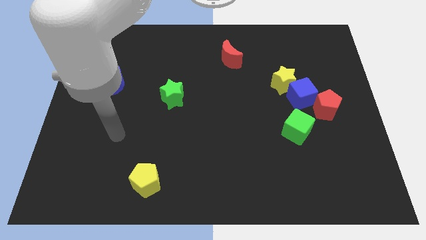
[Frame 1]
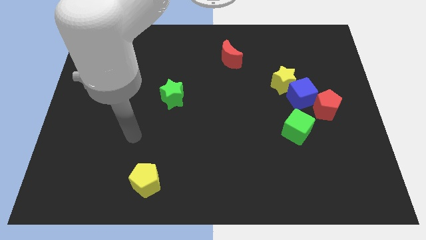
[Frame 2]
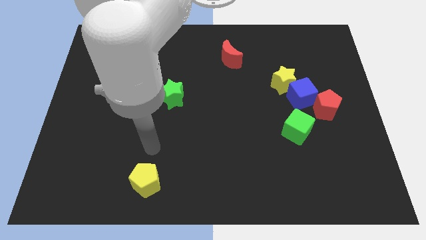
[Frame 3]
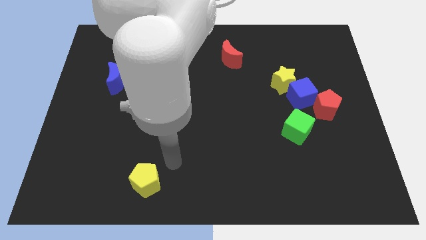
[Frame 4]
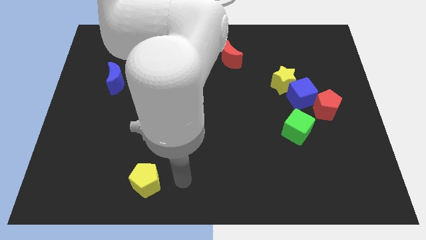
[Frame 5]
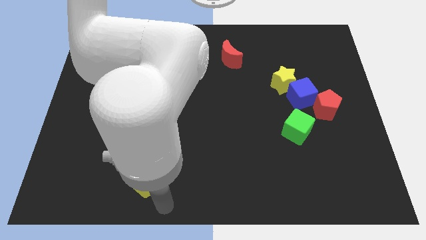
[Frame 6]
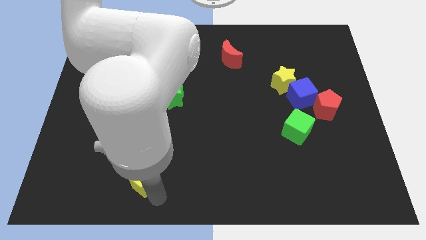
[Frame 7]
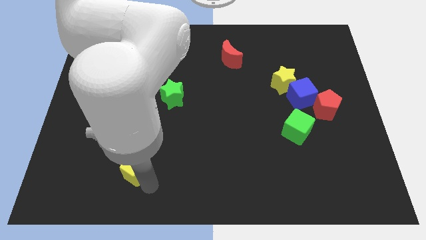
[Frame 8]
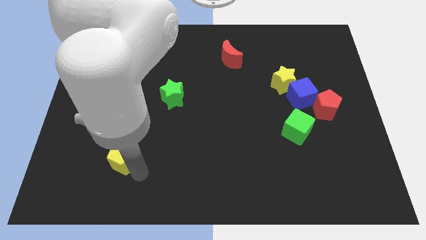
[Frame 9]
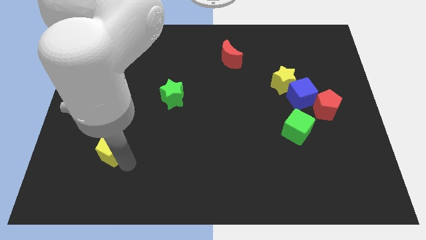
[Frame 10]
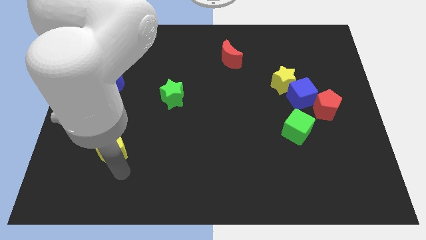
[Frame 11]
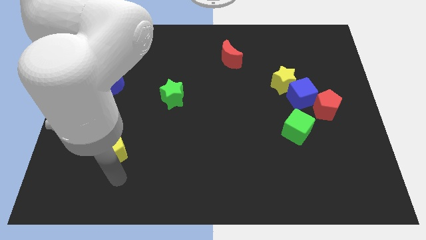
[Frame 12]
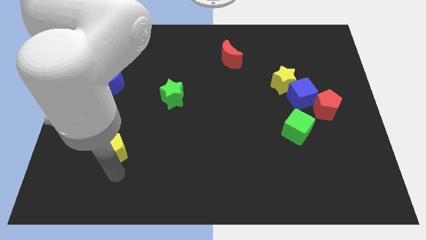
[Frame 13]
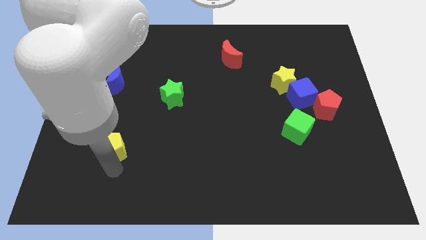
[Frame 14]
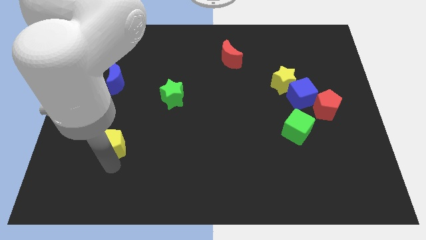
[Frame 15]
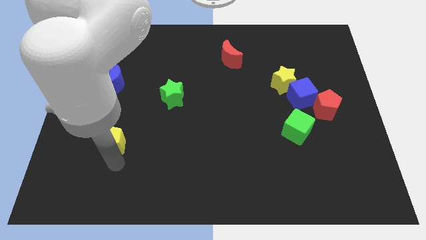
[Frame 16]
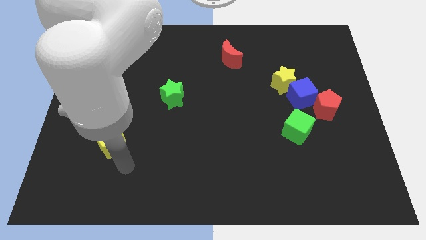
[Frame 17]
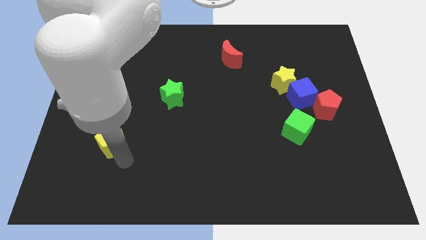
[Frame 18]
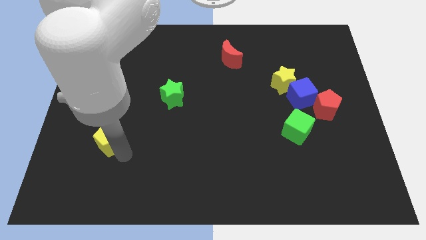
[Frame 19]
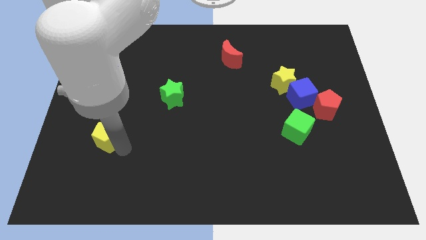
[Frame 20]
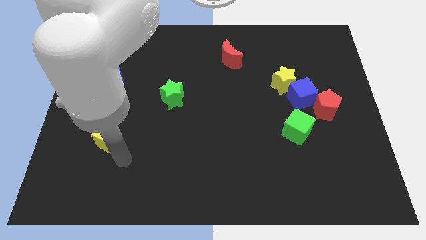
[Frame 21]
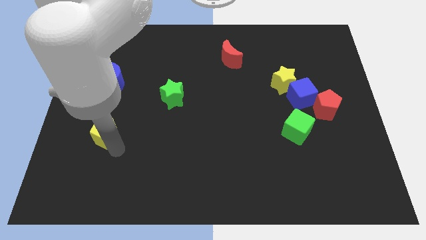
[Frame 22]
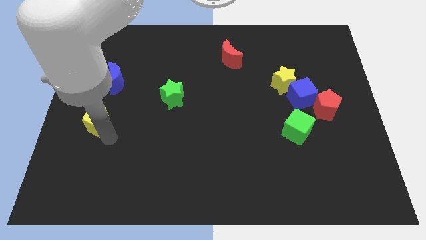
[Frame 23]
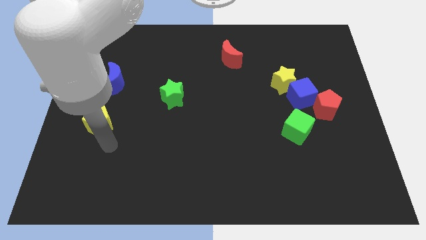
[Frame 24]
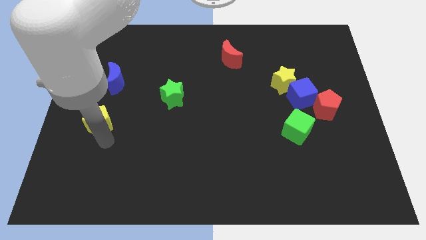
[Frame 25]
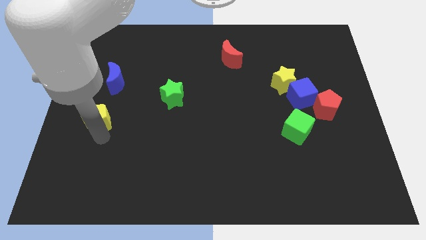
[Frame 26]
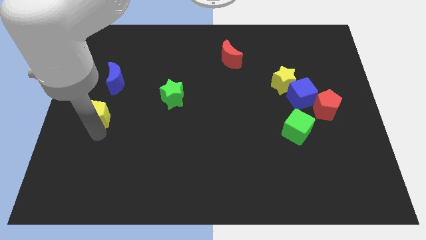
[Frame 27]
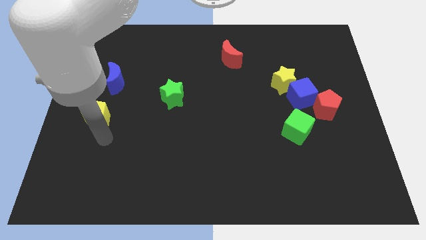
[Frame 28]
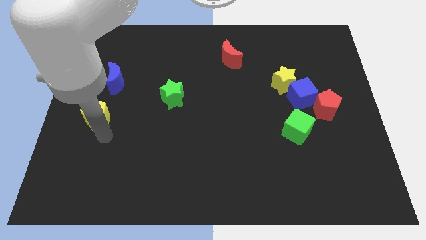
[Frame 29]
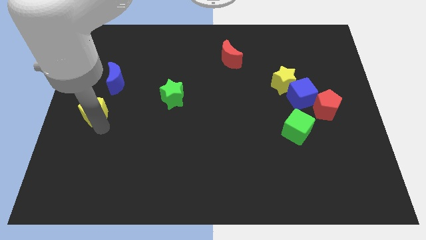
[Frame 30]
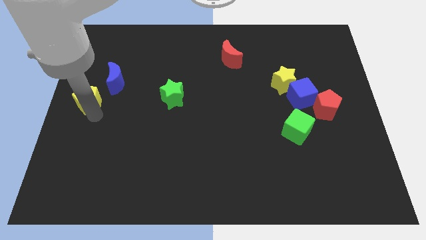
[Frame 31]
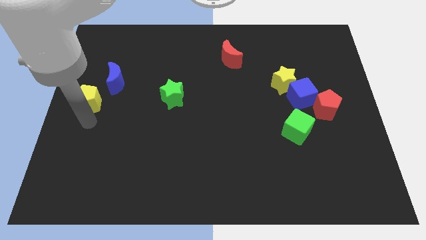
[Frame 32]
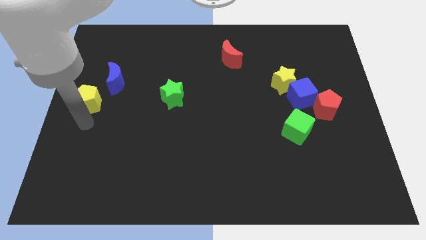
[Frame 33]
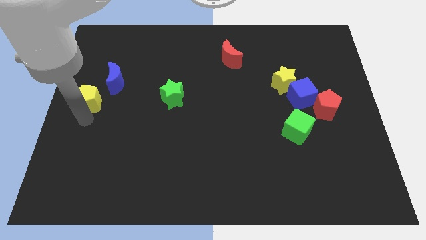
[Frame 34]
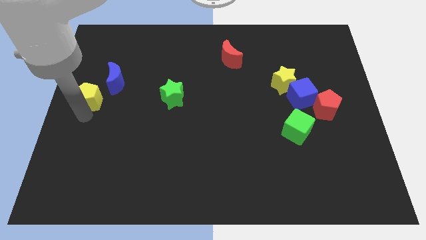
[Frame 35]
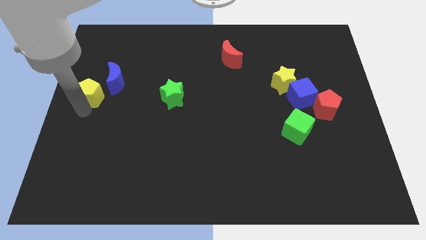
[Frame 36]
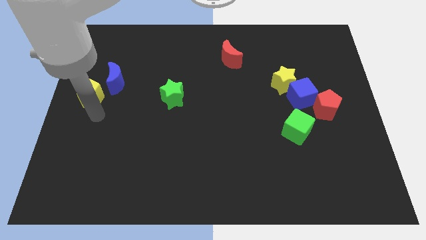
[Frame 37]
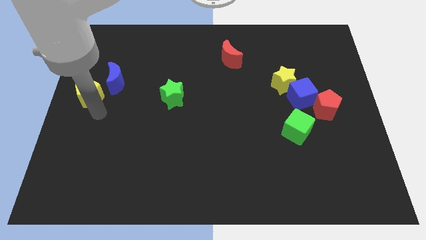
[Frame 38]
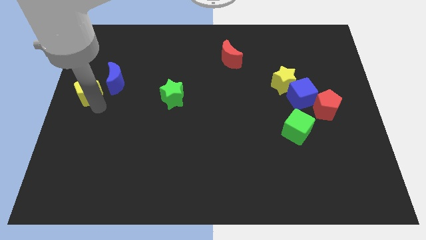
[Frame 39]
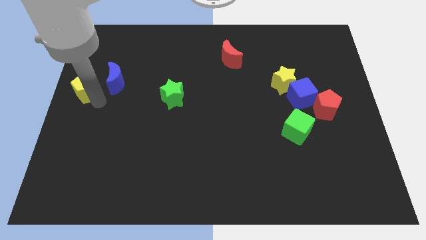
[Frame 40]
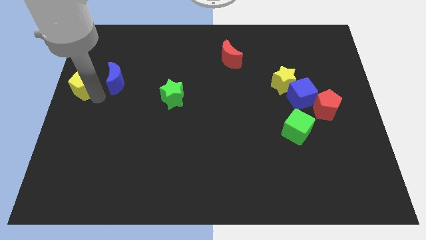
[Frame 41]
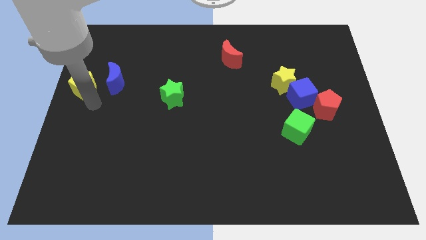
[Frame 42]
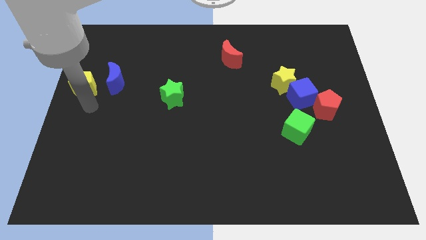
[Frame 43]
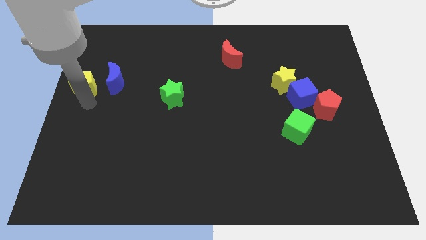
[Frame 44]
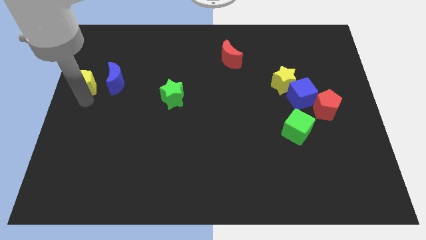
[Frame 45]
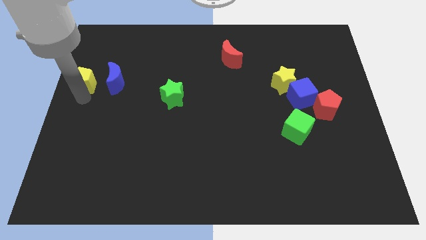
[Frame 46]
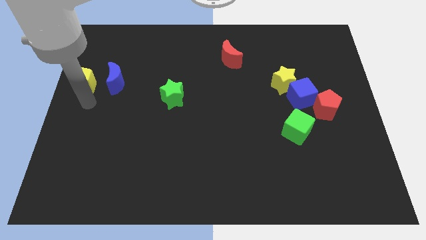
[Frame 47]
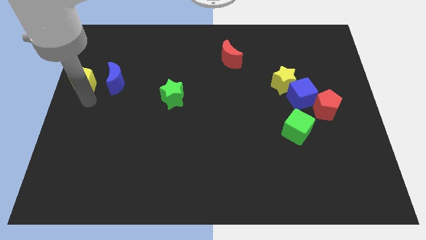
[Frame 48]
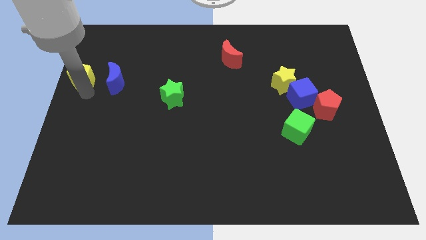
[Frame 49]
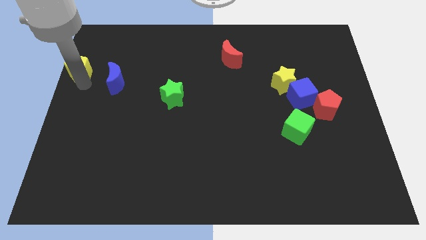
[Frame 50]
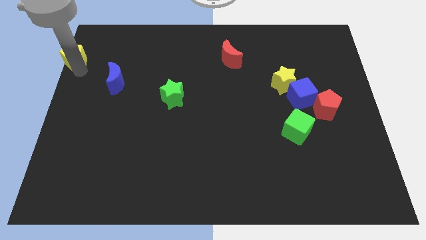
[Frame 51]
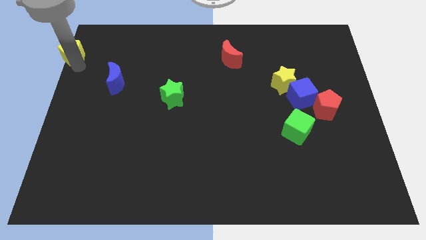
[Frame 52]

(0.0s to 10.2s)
slide the yellow pentagon to the top left corner

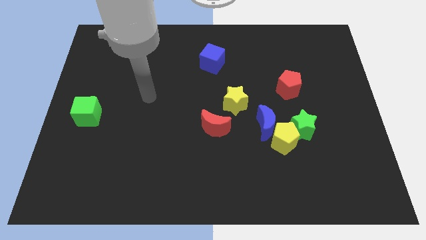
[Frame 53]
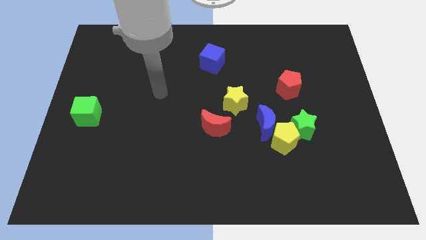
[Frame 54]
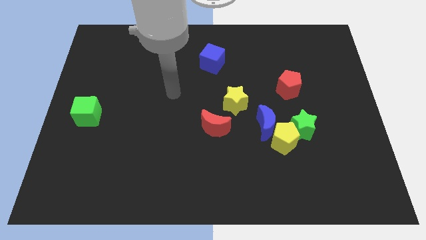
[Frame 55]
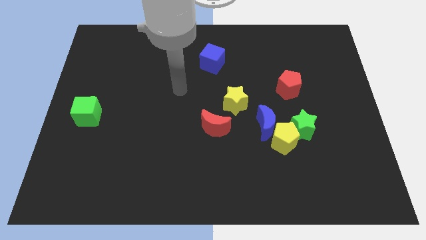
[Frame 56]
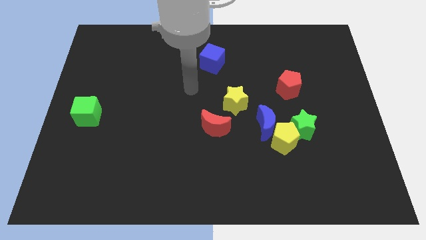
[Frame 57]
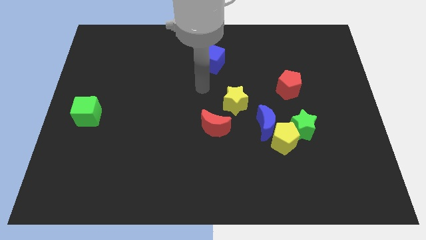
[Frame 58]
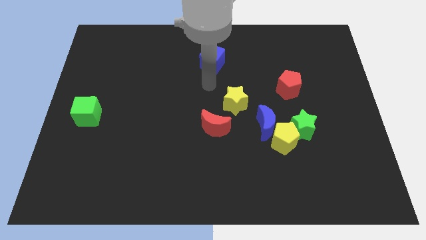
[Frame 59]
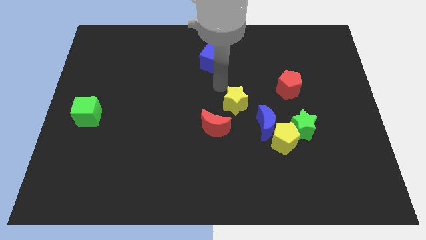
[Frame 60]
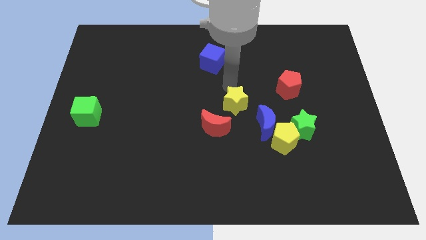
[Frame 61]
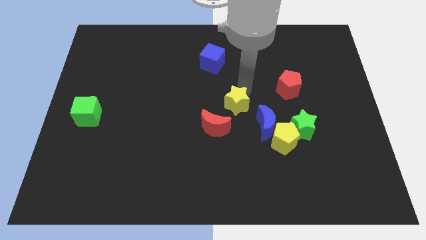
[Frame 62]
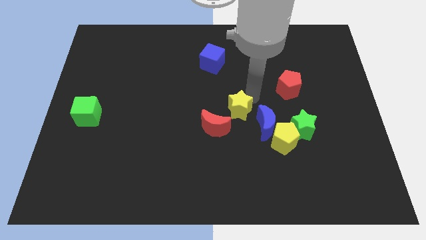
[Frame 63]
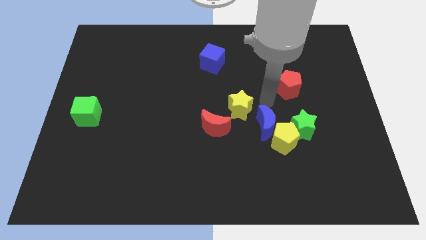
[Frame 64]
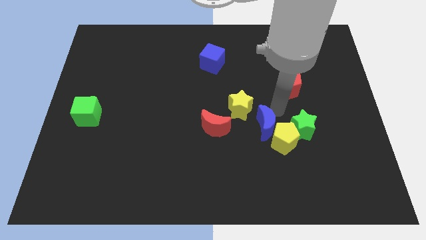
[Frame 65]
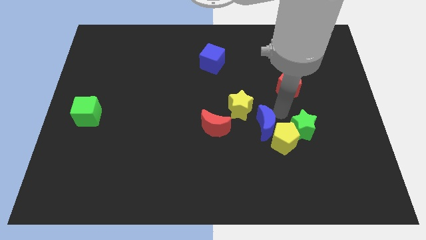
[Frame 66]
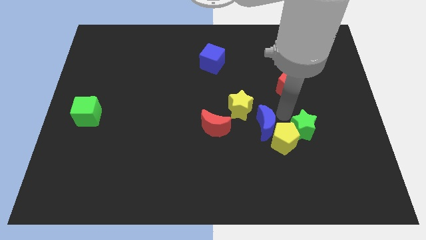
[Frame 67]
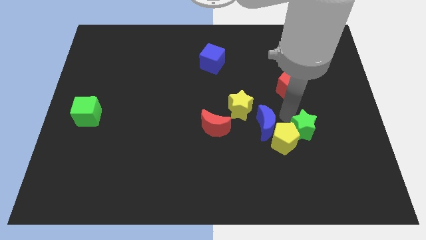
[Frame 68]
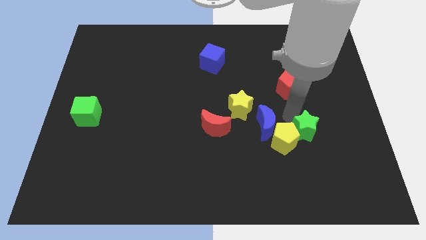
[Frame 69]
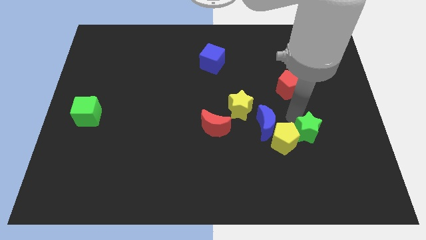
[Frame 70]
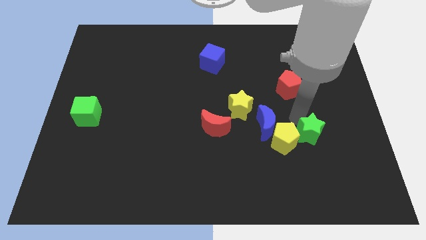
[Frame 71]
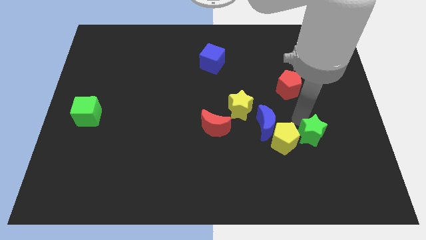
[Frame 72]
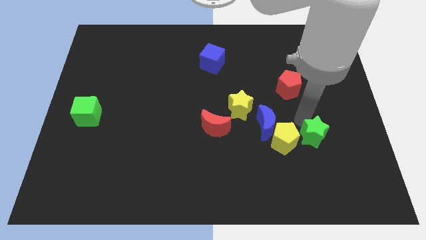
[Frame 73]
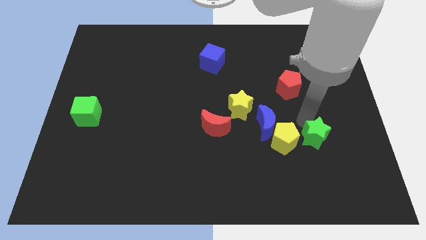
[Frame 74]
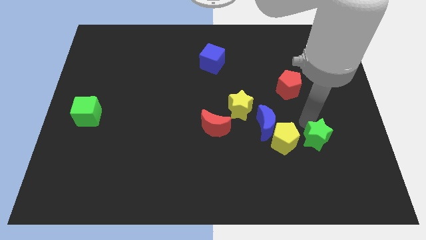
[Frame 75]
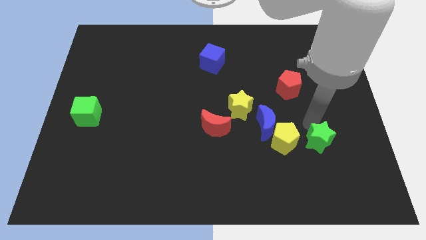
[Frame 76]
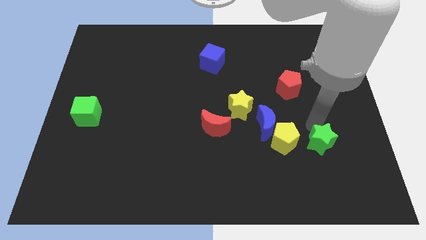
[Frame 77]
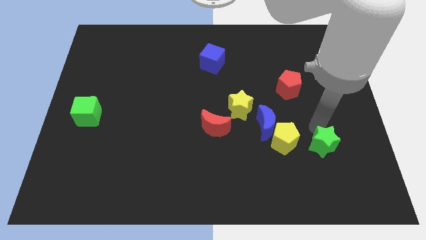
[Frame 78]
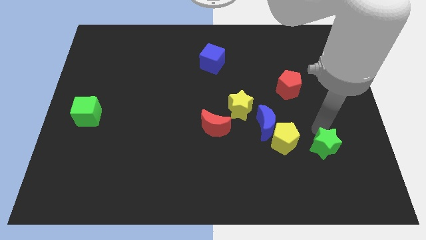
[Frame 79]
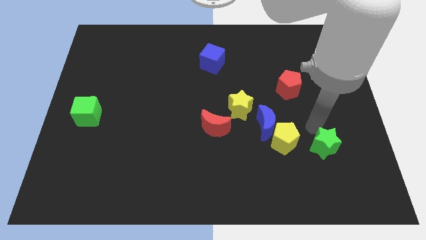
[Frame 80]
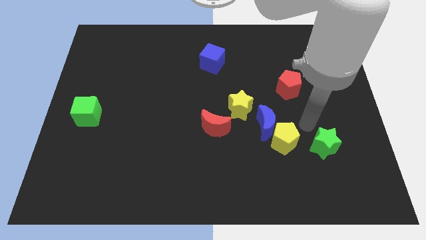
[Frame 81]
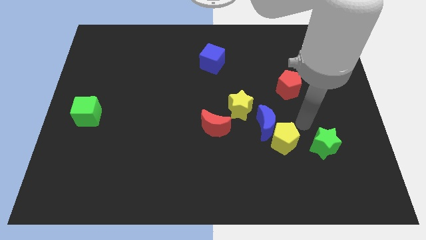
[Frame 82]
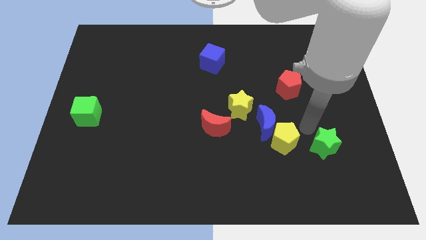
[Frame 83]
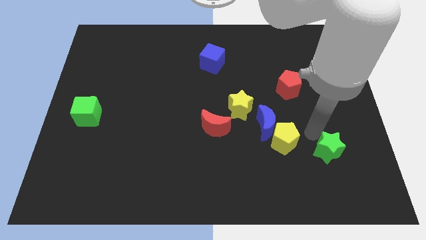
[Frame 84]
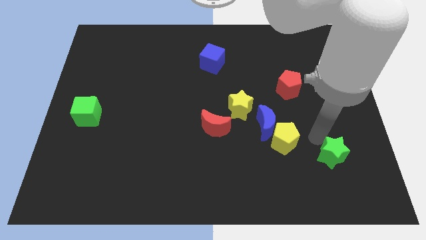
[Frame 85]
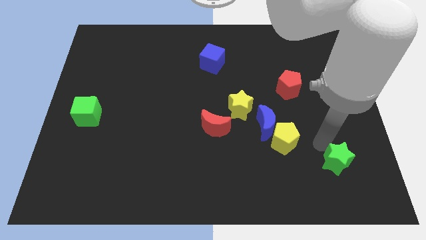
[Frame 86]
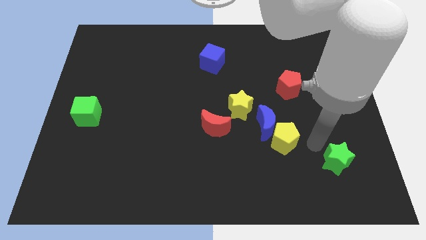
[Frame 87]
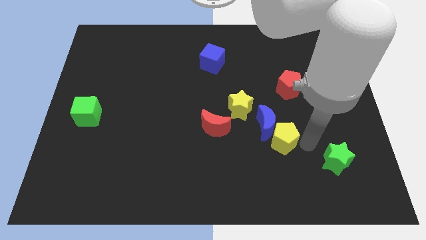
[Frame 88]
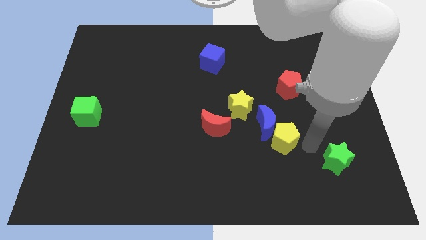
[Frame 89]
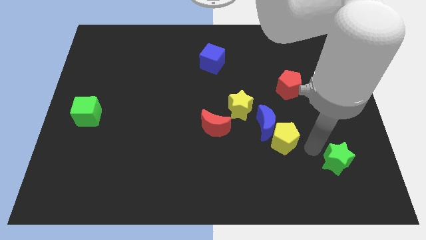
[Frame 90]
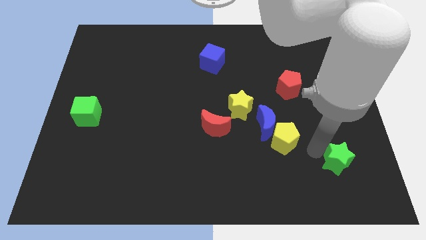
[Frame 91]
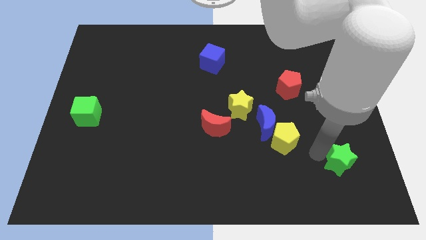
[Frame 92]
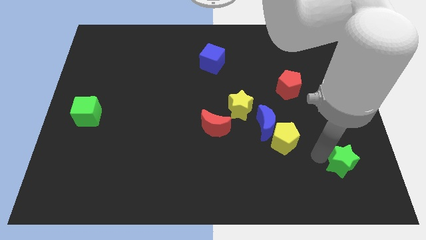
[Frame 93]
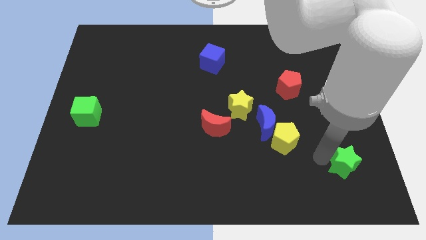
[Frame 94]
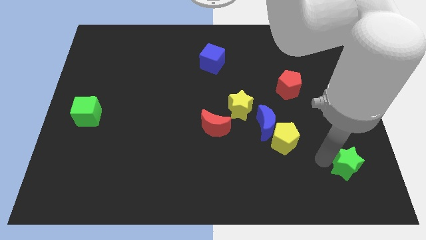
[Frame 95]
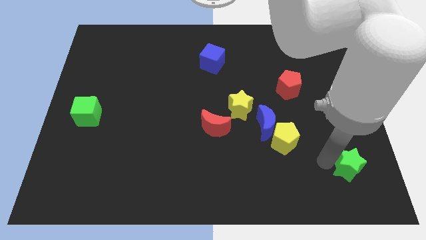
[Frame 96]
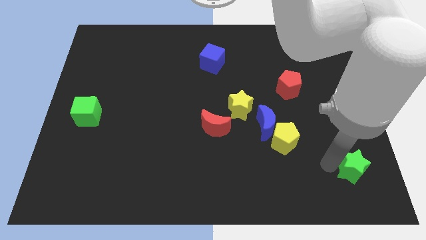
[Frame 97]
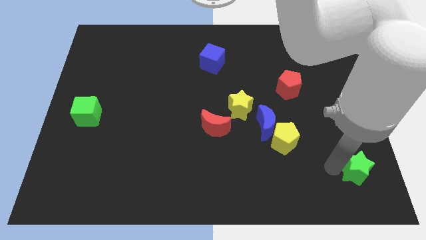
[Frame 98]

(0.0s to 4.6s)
push the green star to the lower right corner
